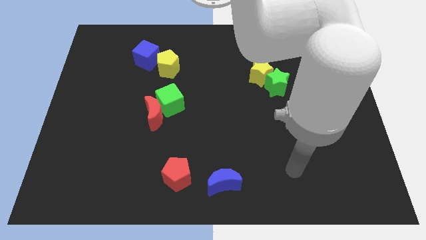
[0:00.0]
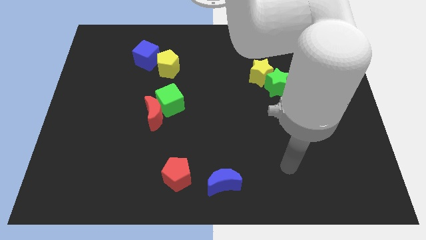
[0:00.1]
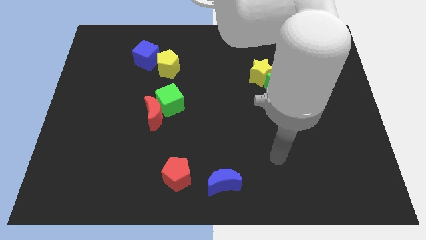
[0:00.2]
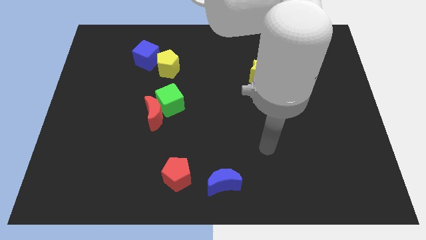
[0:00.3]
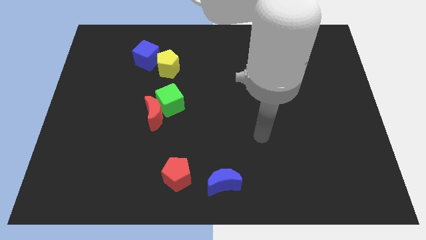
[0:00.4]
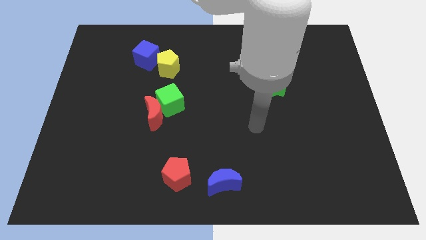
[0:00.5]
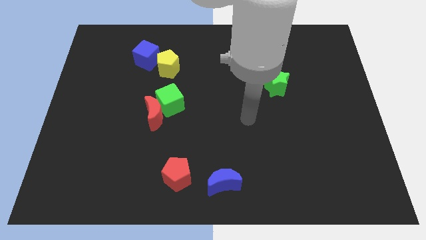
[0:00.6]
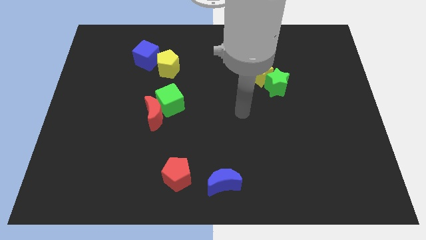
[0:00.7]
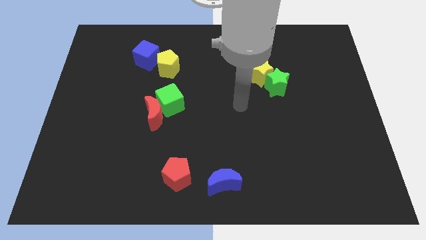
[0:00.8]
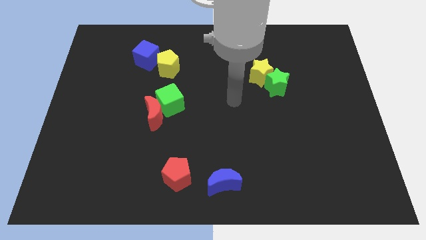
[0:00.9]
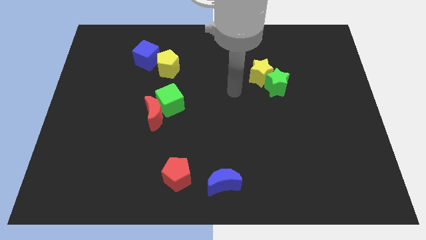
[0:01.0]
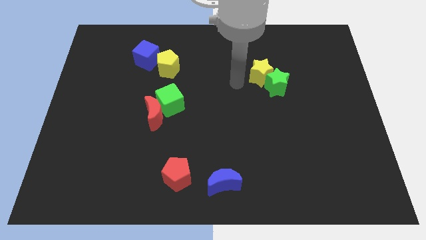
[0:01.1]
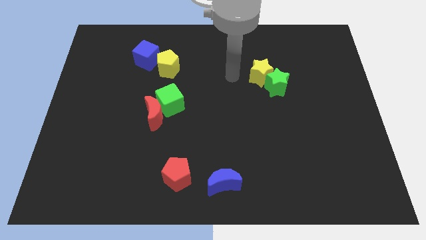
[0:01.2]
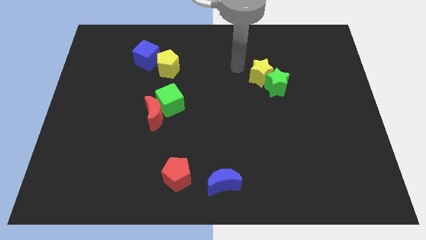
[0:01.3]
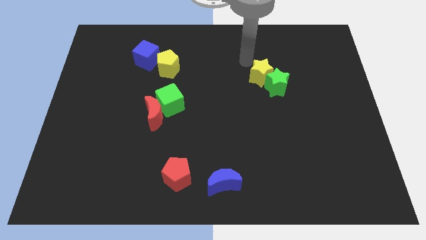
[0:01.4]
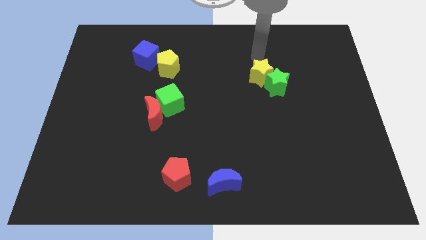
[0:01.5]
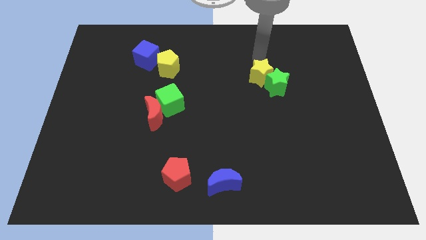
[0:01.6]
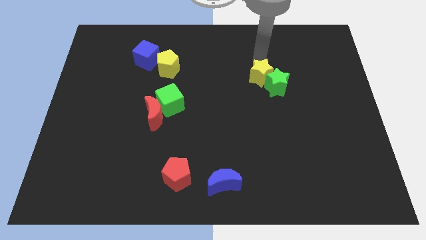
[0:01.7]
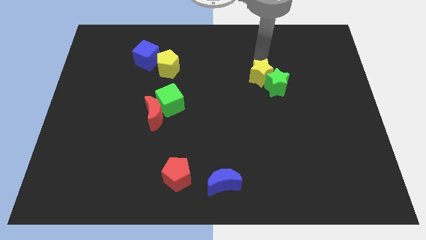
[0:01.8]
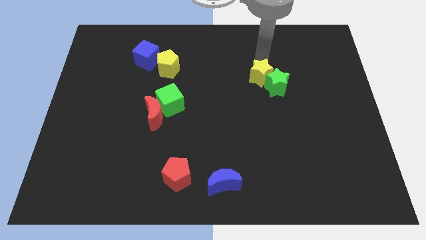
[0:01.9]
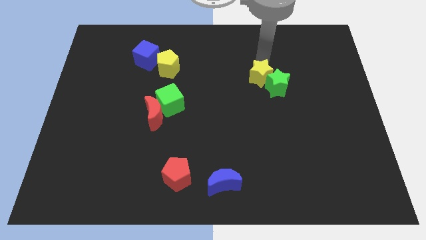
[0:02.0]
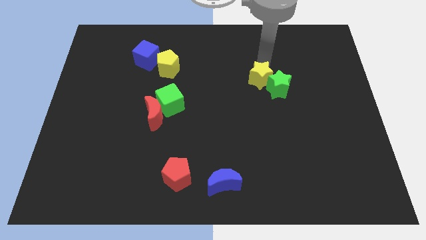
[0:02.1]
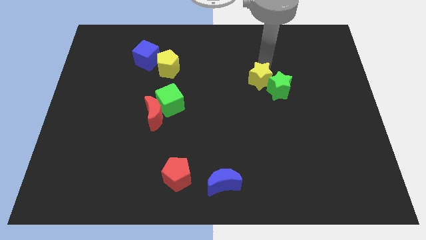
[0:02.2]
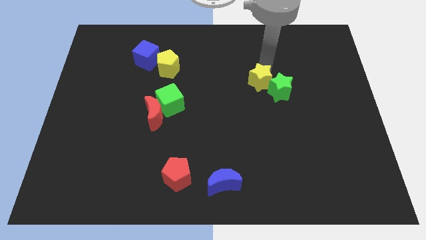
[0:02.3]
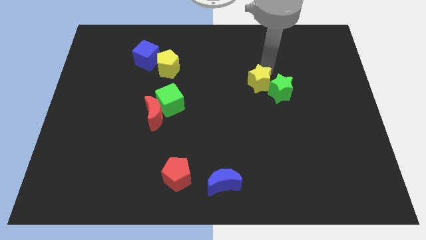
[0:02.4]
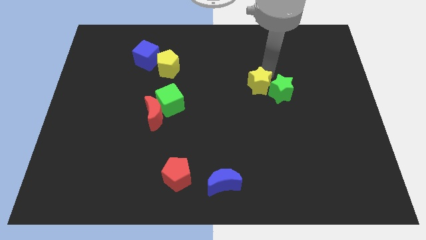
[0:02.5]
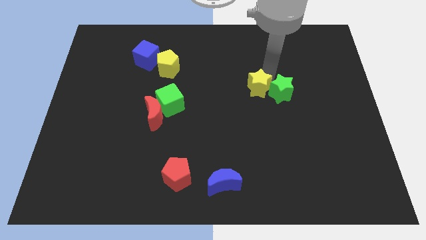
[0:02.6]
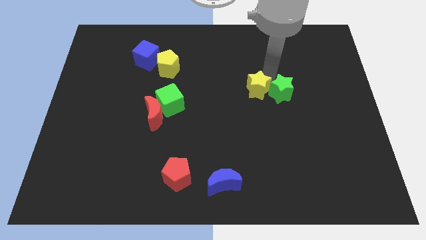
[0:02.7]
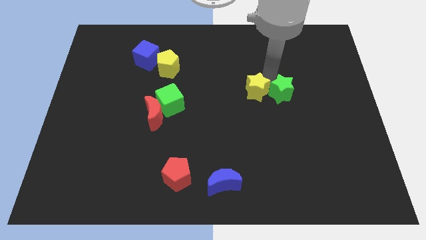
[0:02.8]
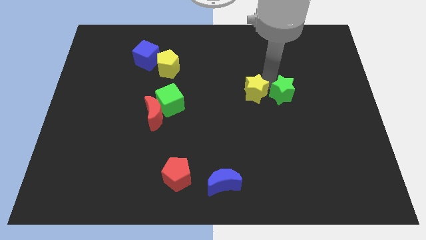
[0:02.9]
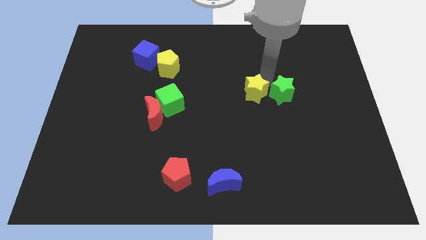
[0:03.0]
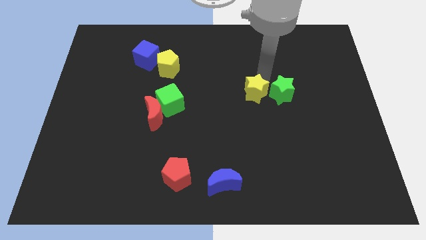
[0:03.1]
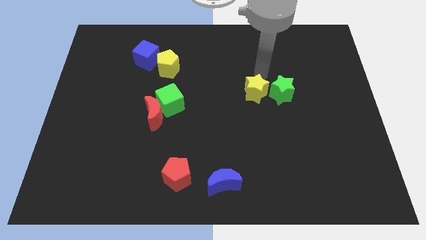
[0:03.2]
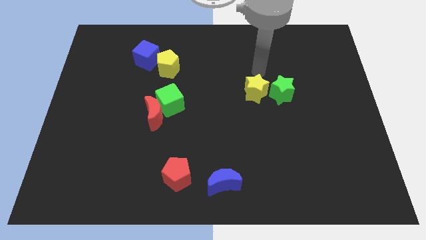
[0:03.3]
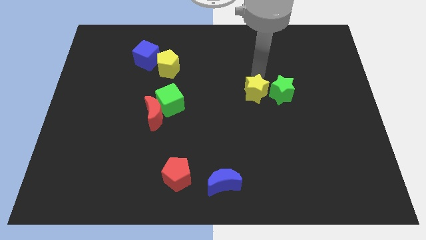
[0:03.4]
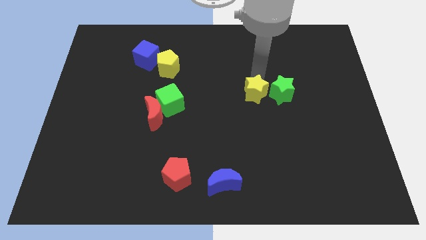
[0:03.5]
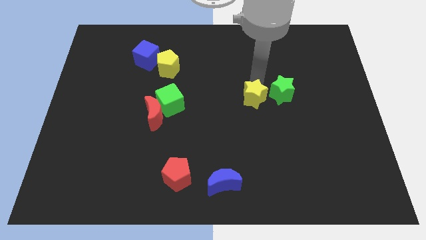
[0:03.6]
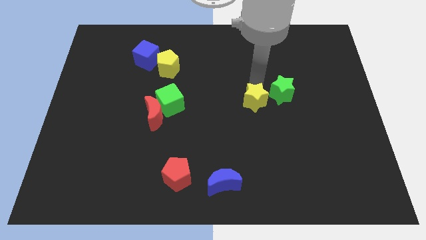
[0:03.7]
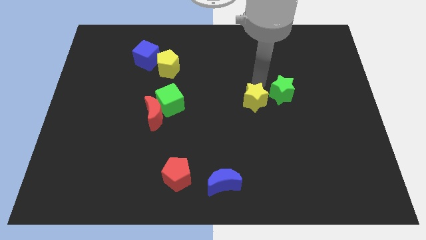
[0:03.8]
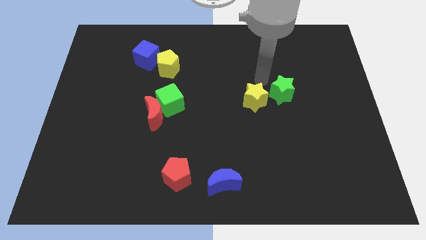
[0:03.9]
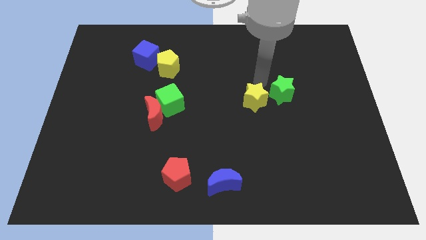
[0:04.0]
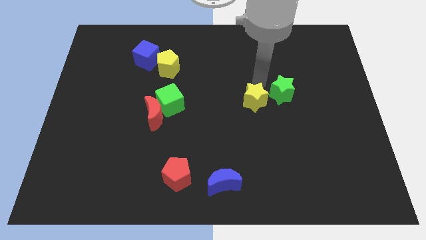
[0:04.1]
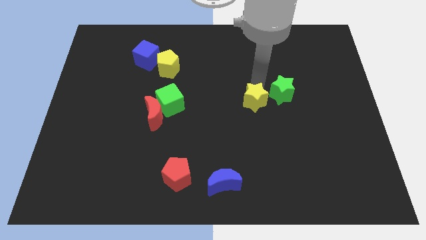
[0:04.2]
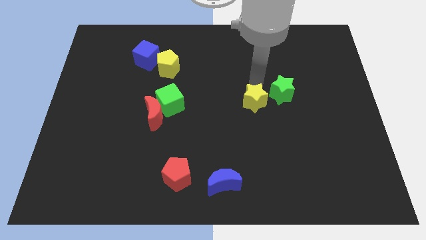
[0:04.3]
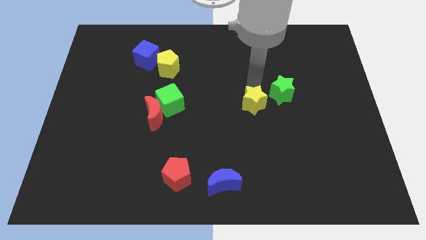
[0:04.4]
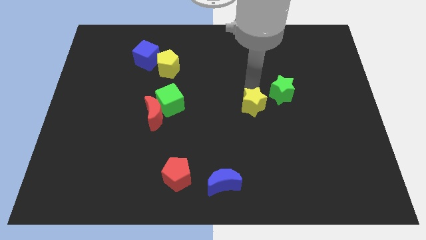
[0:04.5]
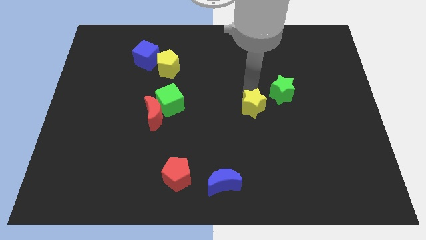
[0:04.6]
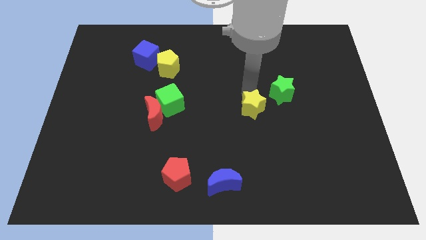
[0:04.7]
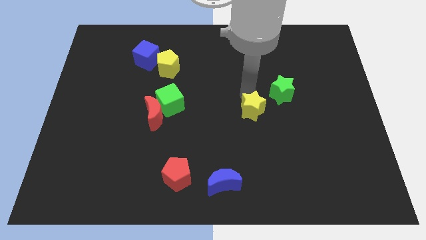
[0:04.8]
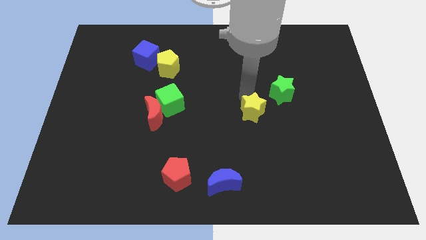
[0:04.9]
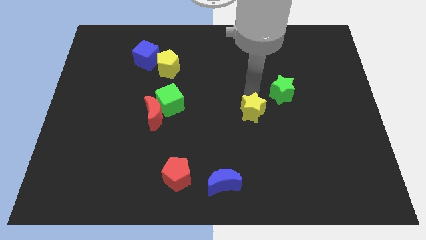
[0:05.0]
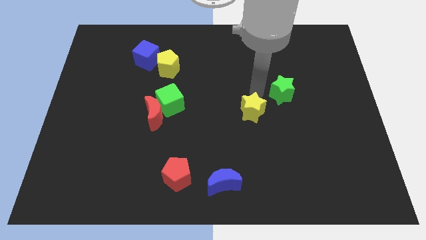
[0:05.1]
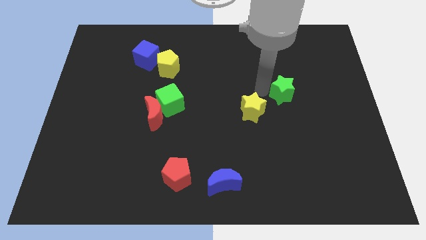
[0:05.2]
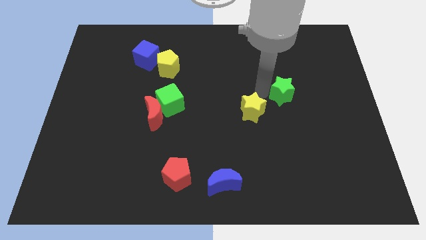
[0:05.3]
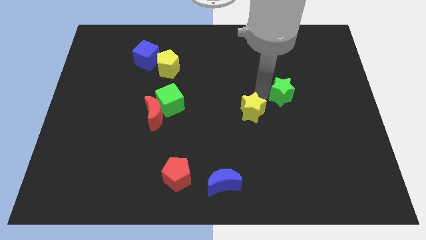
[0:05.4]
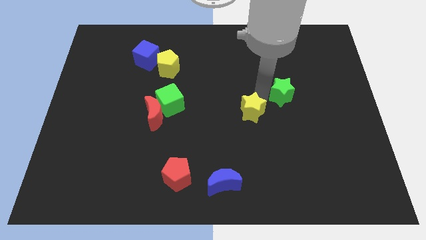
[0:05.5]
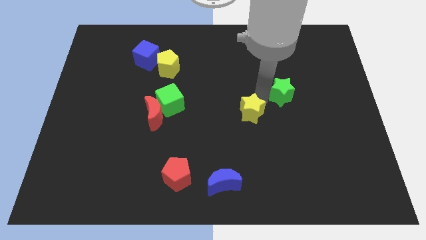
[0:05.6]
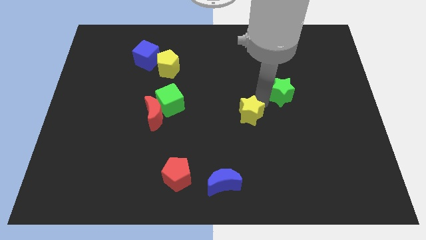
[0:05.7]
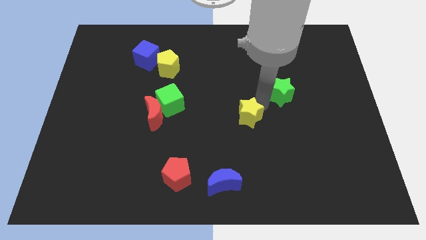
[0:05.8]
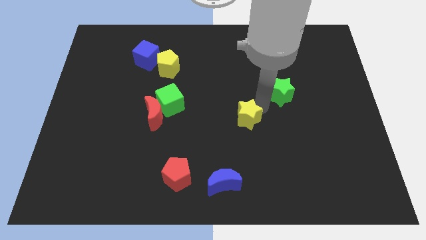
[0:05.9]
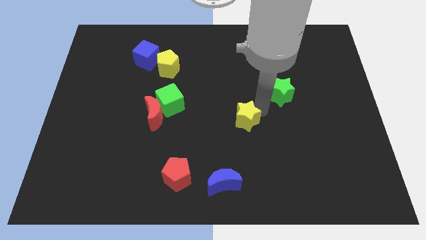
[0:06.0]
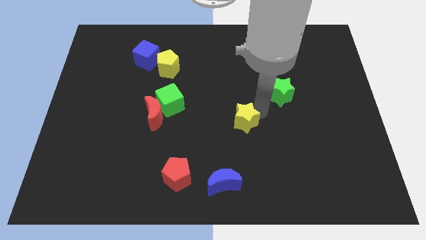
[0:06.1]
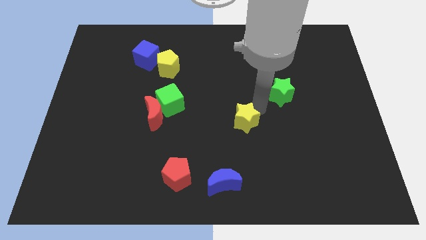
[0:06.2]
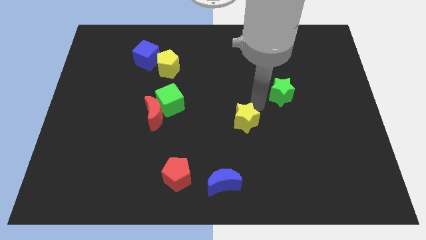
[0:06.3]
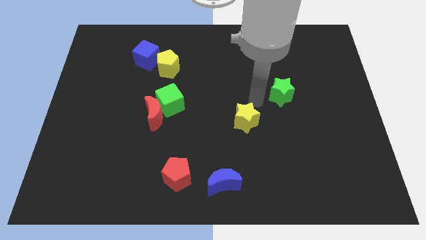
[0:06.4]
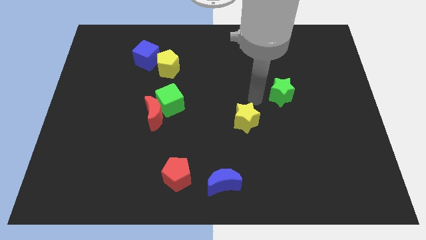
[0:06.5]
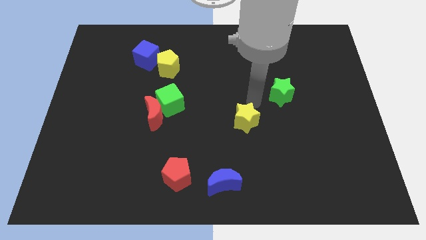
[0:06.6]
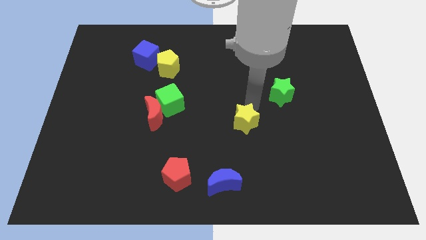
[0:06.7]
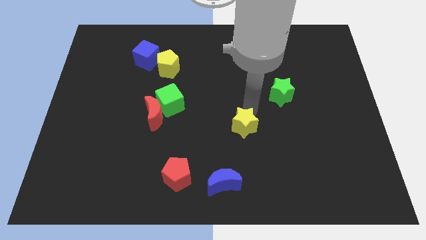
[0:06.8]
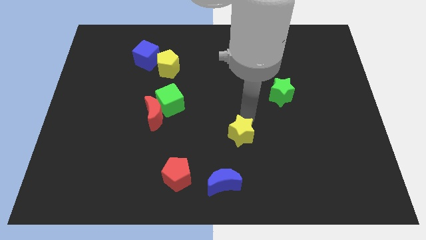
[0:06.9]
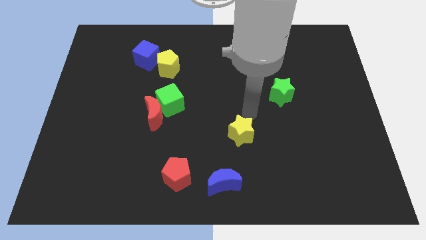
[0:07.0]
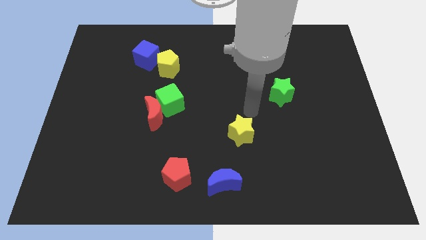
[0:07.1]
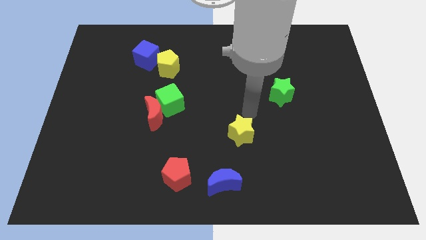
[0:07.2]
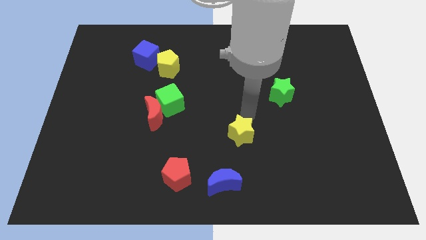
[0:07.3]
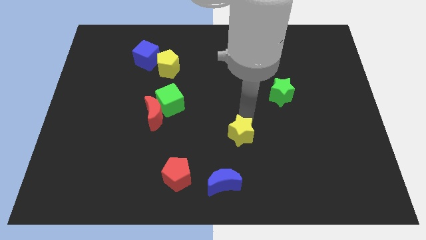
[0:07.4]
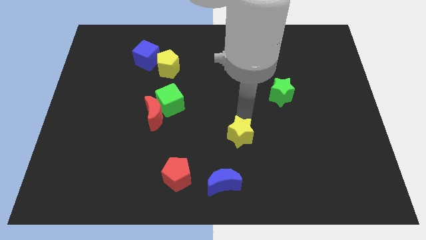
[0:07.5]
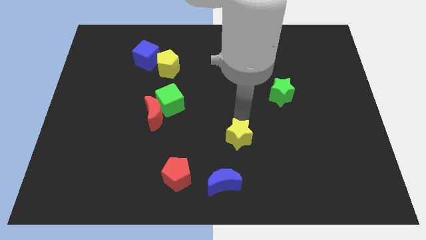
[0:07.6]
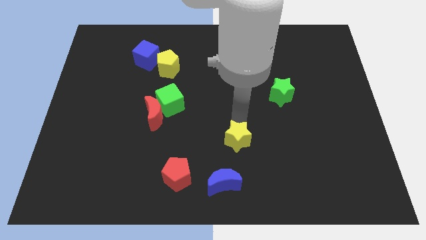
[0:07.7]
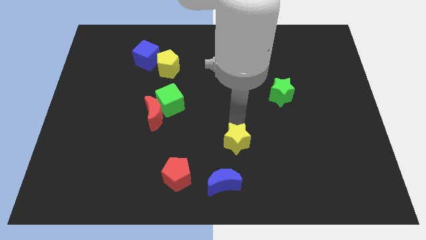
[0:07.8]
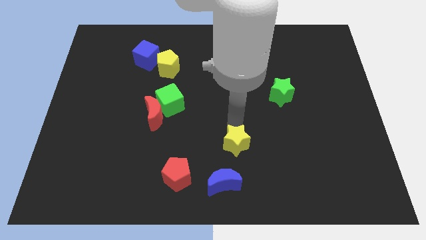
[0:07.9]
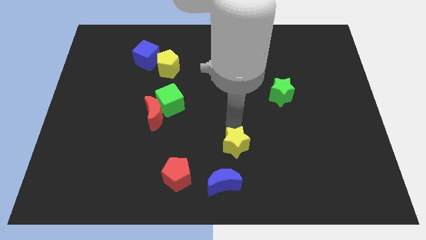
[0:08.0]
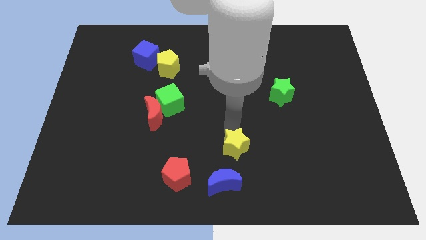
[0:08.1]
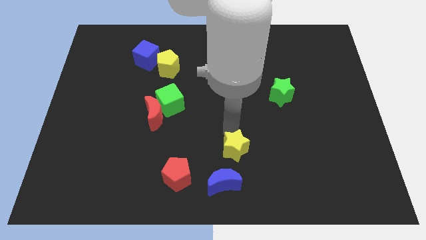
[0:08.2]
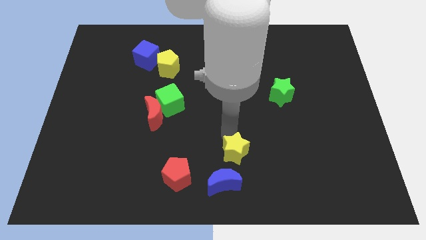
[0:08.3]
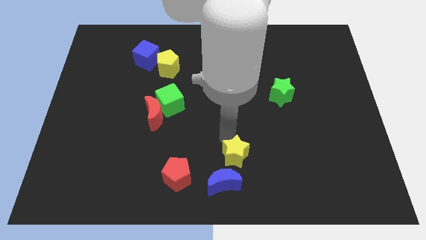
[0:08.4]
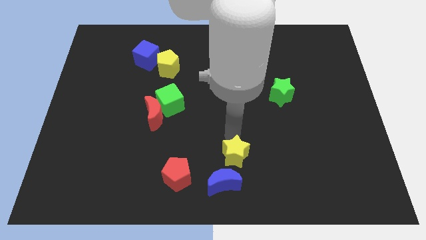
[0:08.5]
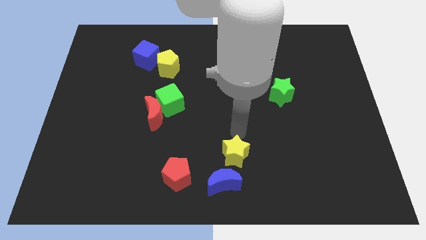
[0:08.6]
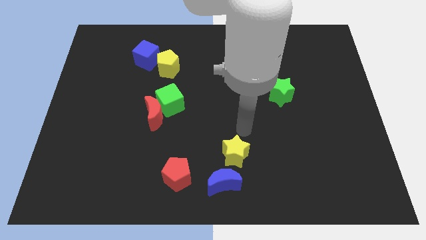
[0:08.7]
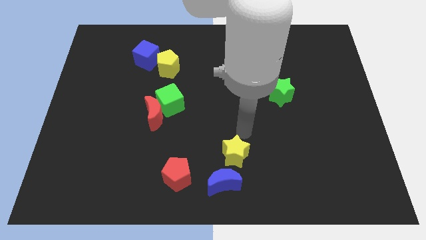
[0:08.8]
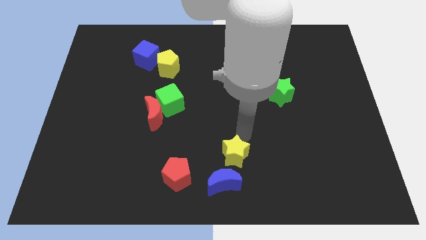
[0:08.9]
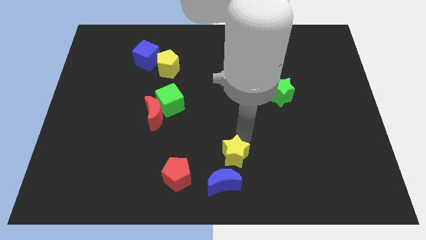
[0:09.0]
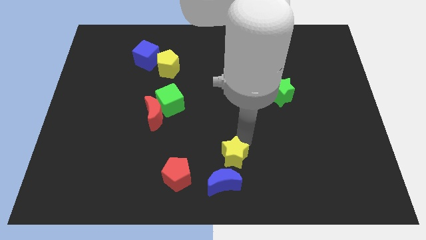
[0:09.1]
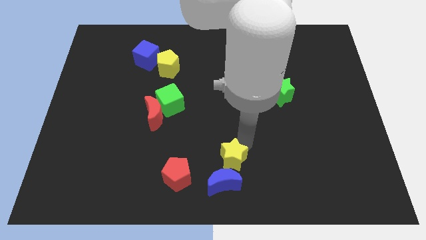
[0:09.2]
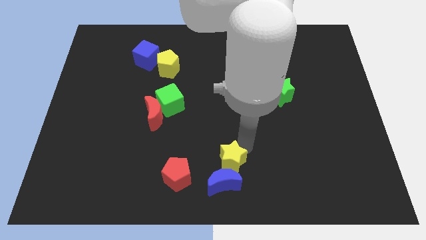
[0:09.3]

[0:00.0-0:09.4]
slide the yellow star to the blue moon
